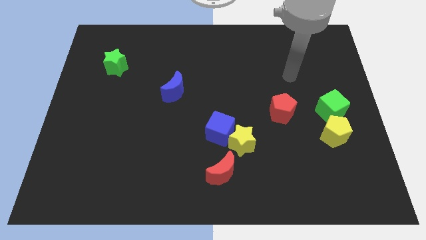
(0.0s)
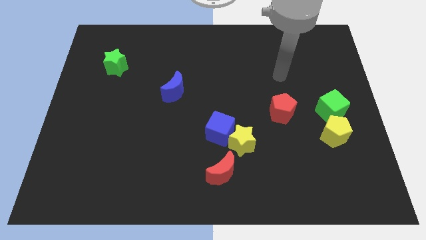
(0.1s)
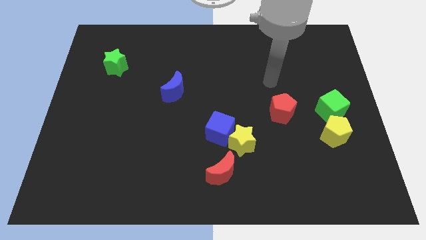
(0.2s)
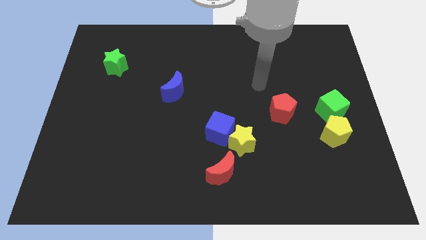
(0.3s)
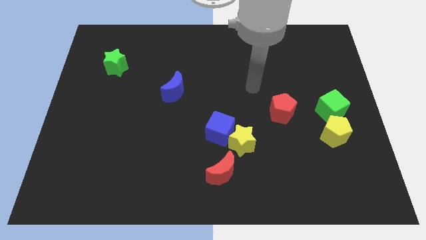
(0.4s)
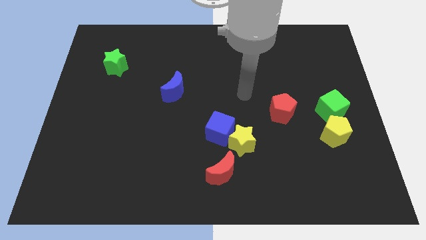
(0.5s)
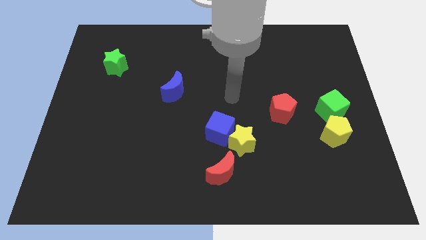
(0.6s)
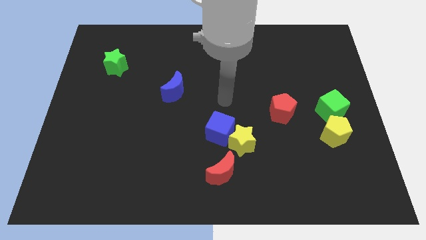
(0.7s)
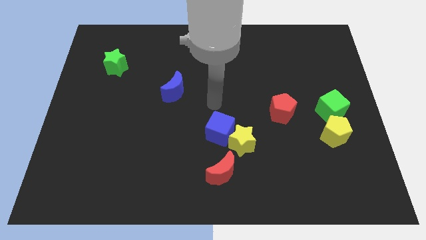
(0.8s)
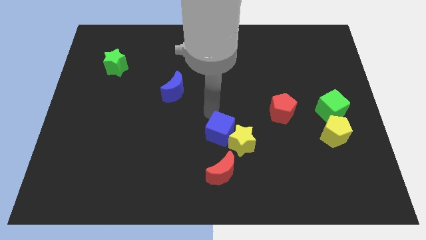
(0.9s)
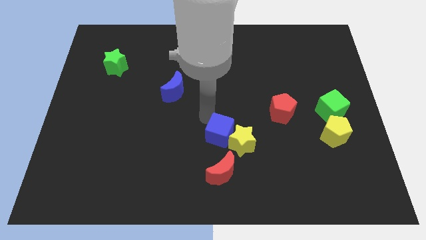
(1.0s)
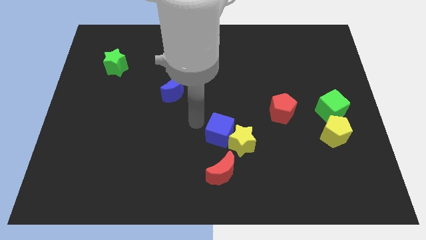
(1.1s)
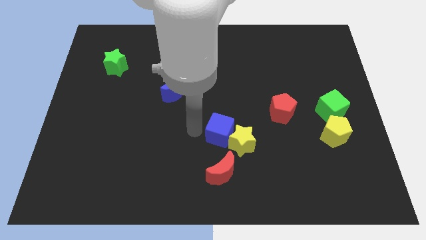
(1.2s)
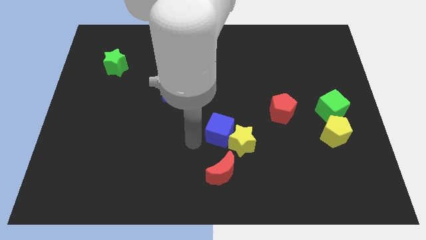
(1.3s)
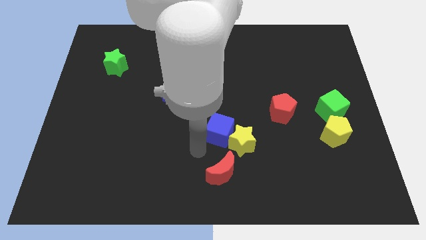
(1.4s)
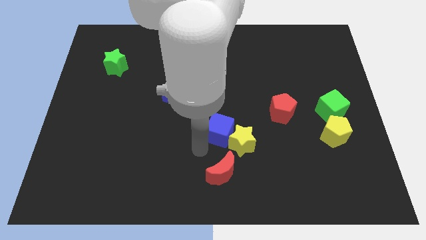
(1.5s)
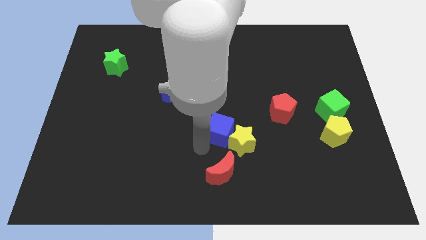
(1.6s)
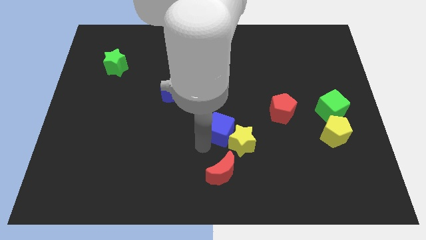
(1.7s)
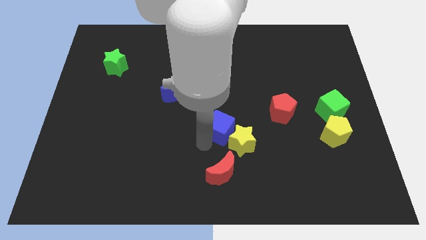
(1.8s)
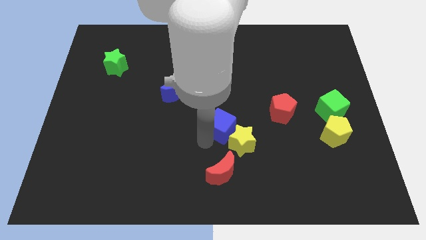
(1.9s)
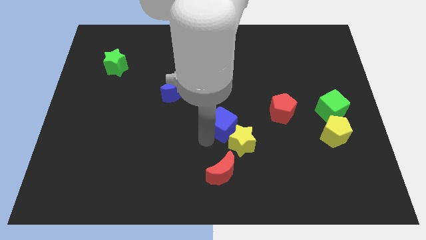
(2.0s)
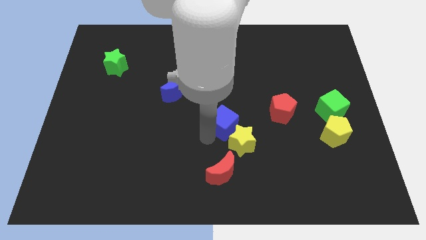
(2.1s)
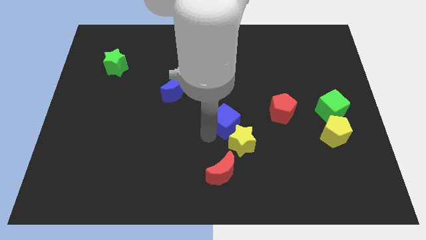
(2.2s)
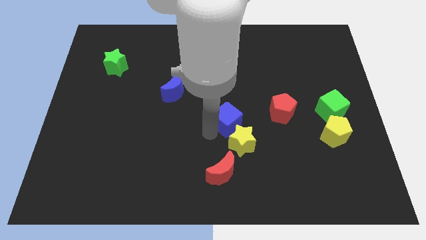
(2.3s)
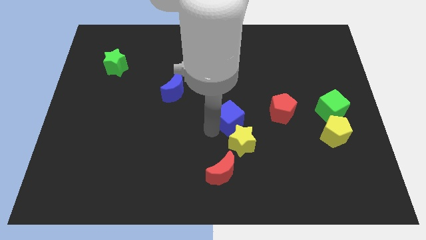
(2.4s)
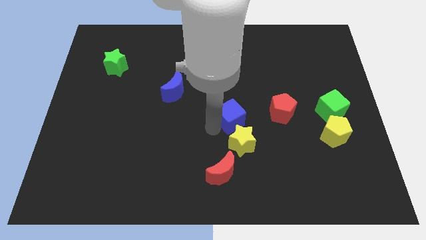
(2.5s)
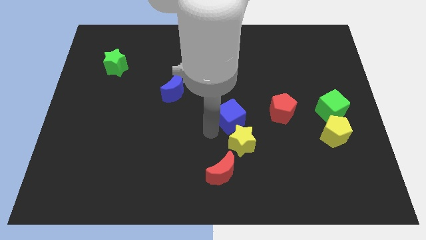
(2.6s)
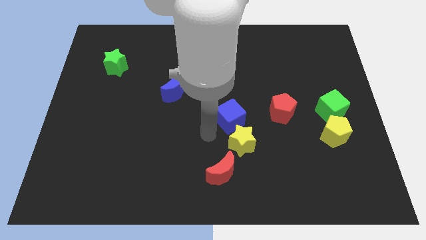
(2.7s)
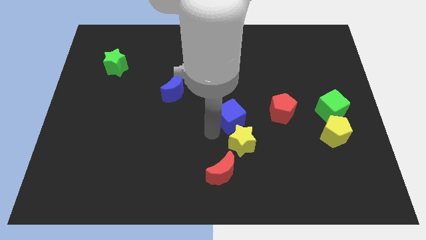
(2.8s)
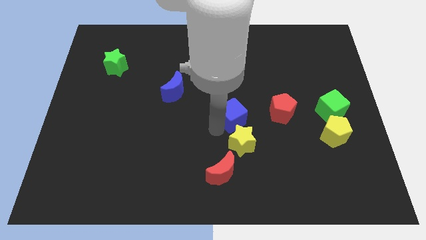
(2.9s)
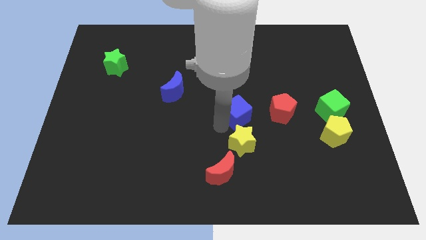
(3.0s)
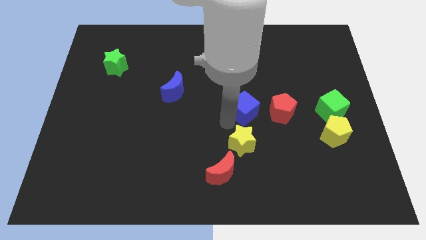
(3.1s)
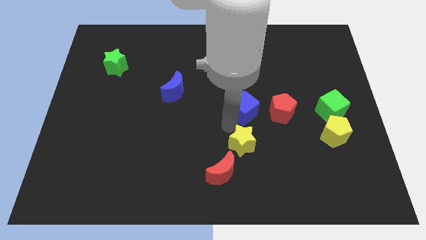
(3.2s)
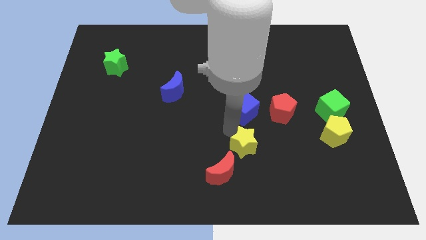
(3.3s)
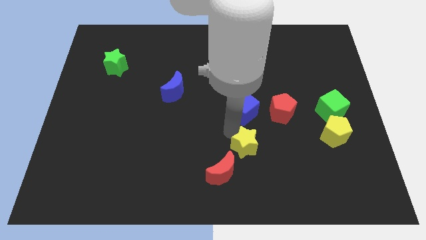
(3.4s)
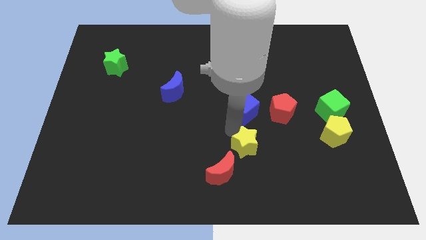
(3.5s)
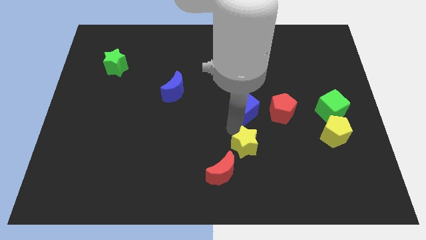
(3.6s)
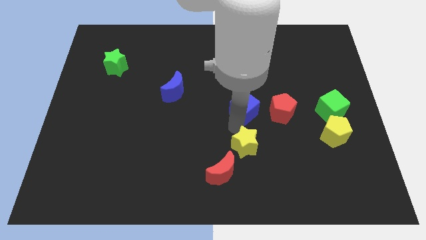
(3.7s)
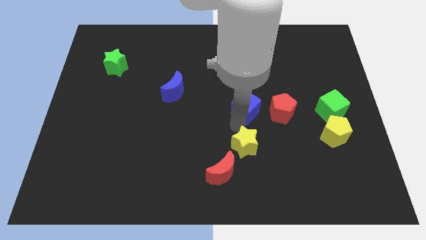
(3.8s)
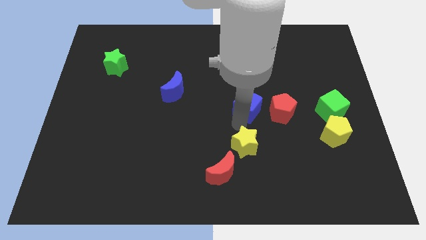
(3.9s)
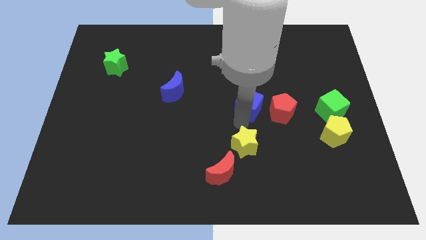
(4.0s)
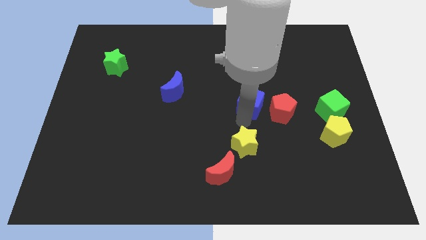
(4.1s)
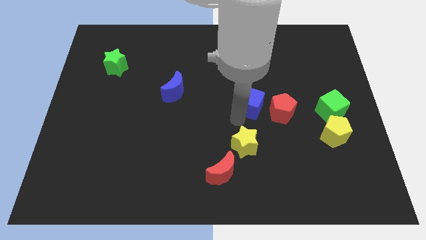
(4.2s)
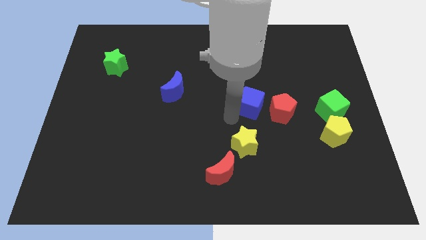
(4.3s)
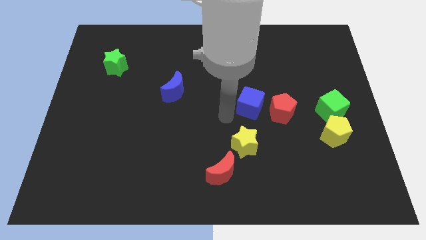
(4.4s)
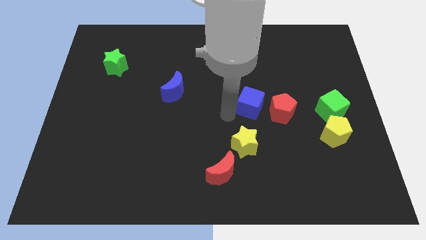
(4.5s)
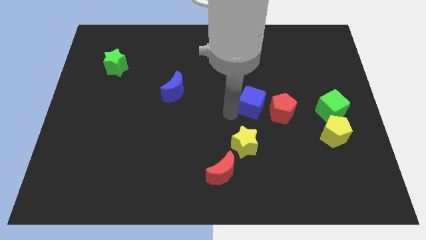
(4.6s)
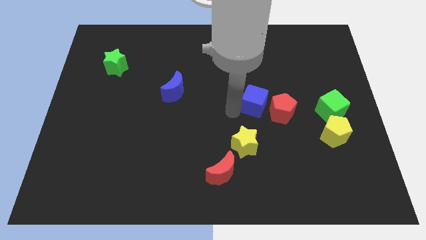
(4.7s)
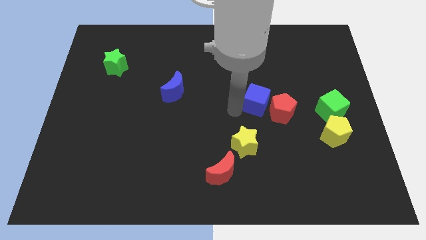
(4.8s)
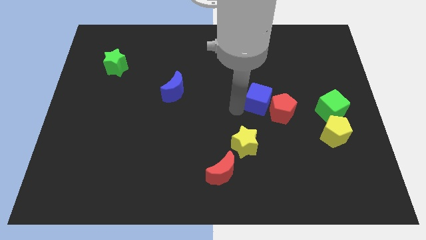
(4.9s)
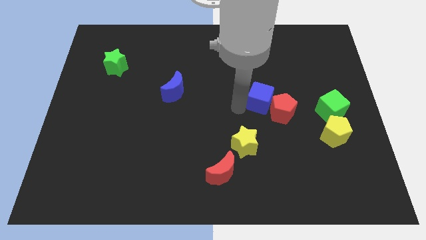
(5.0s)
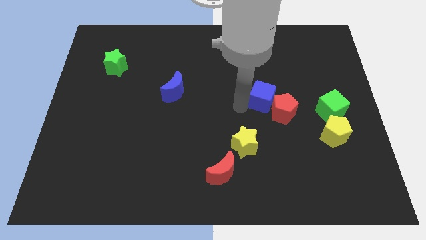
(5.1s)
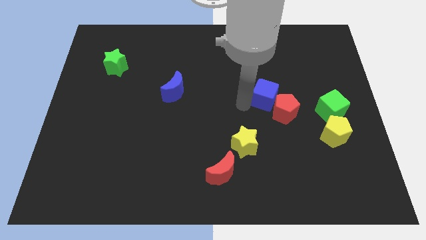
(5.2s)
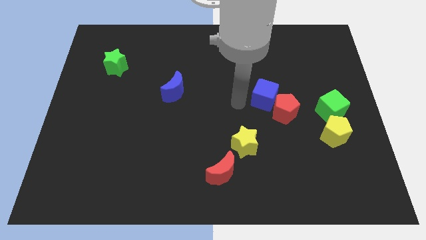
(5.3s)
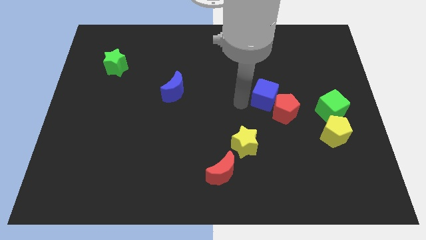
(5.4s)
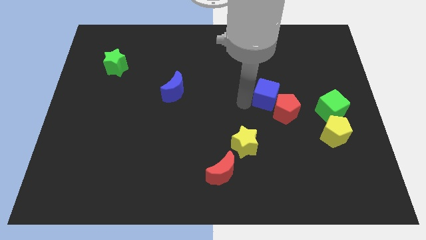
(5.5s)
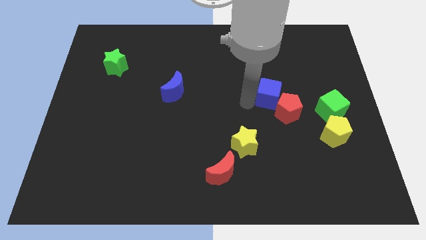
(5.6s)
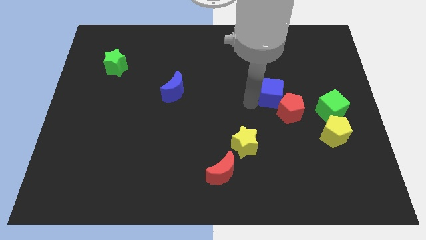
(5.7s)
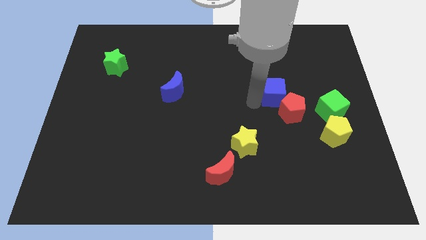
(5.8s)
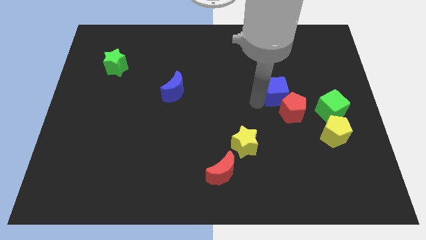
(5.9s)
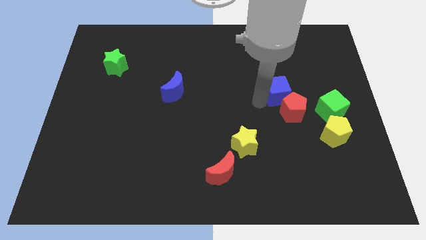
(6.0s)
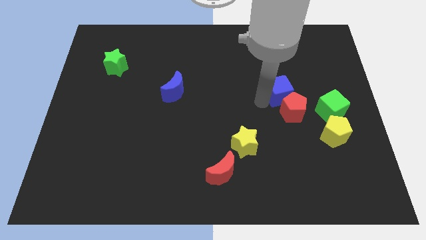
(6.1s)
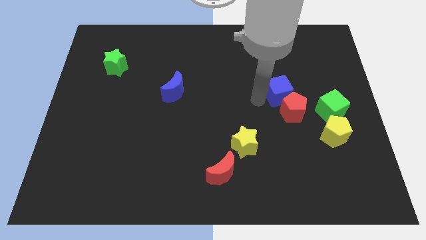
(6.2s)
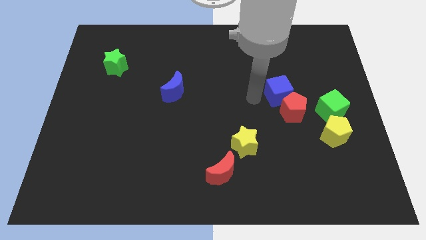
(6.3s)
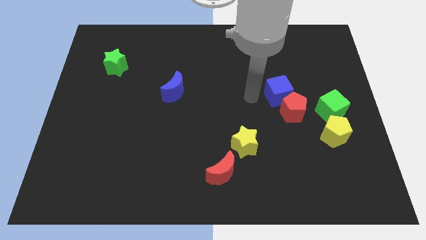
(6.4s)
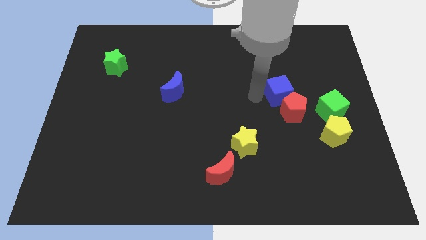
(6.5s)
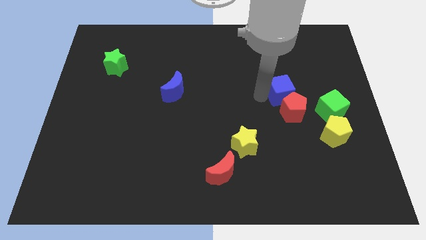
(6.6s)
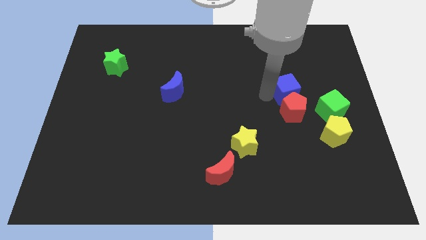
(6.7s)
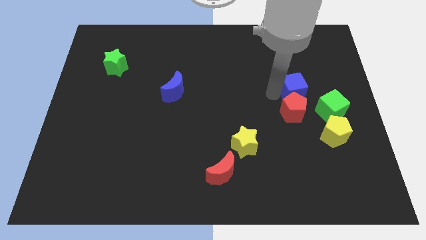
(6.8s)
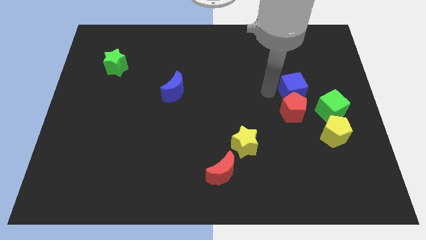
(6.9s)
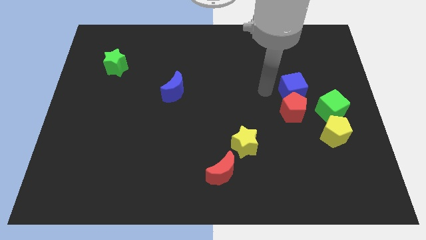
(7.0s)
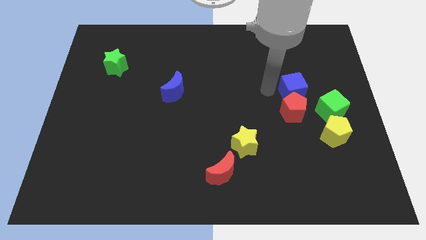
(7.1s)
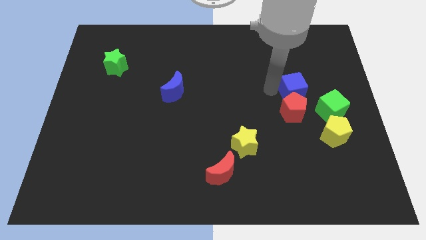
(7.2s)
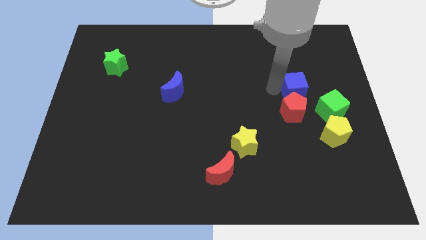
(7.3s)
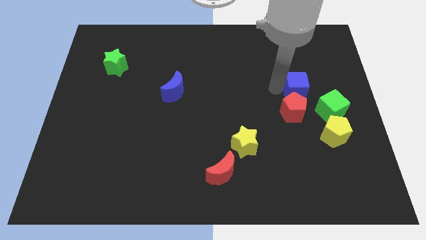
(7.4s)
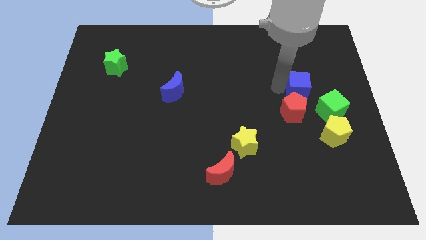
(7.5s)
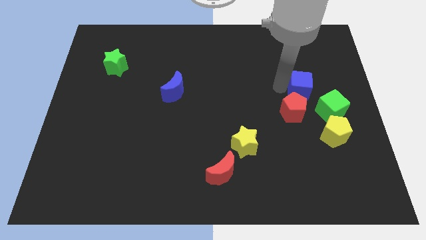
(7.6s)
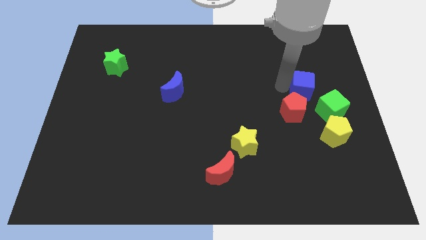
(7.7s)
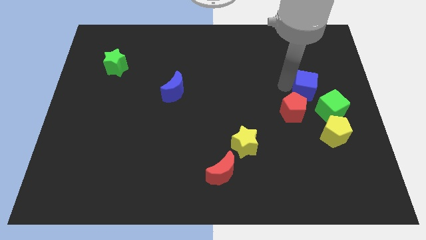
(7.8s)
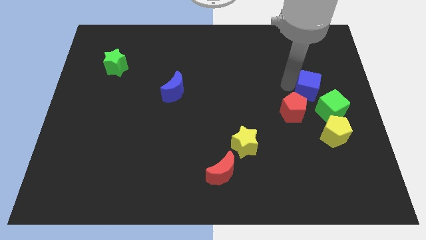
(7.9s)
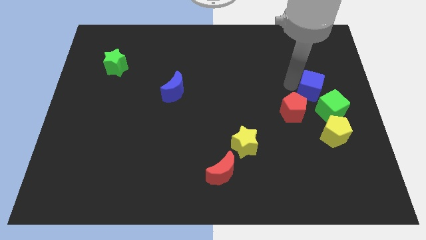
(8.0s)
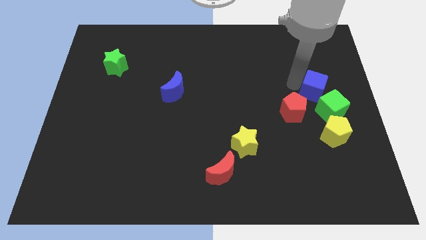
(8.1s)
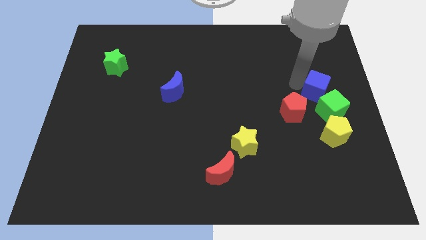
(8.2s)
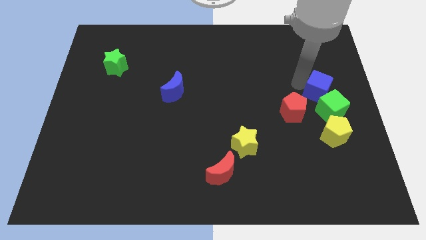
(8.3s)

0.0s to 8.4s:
push the blue cube to the right side of the board
